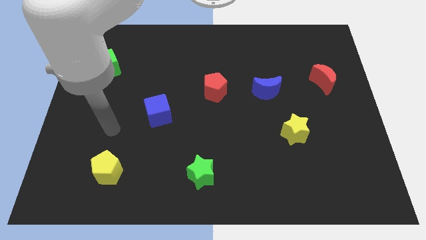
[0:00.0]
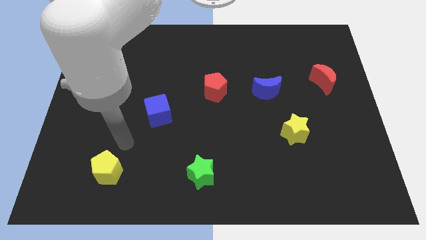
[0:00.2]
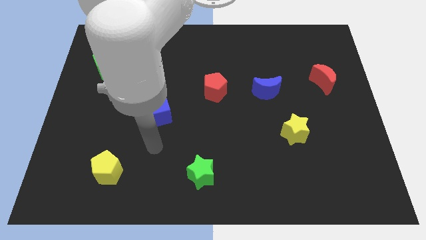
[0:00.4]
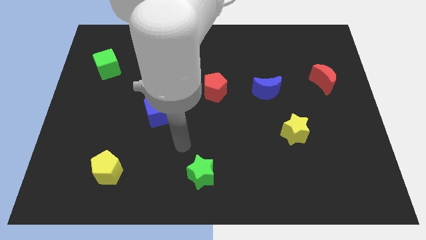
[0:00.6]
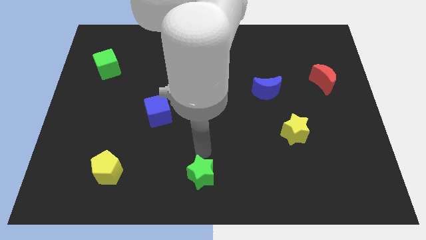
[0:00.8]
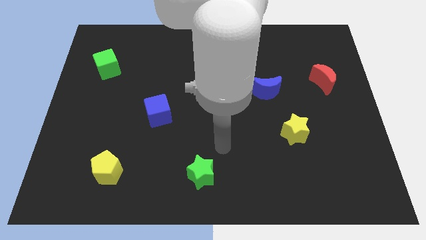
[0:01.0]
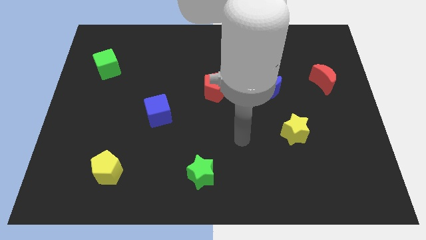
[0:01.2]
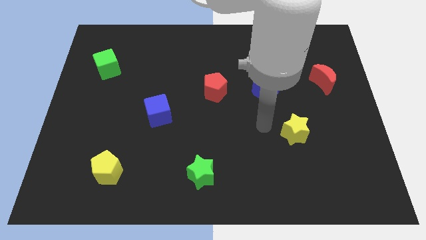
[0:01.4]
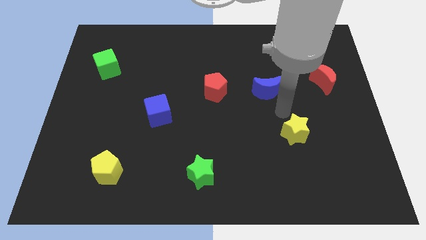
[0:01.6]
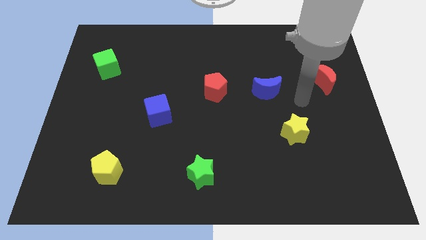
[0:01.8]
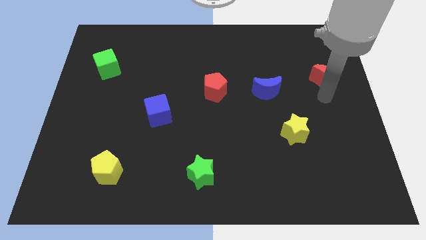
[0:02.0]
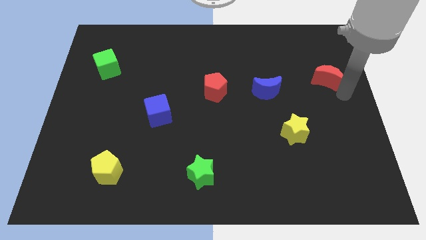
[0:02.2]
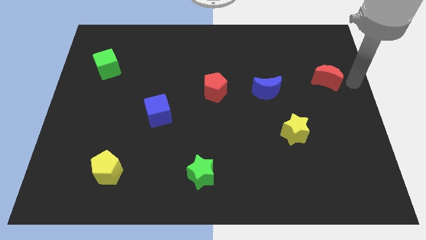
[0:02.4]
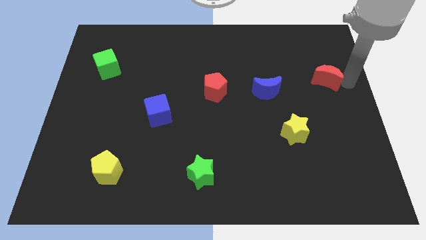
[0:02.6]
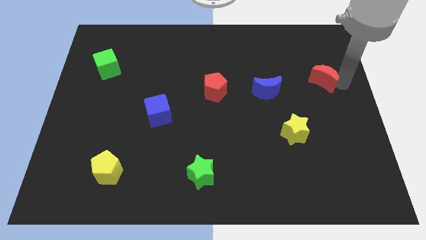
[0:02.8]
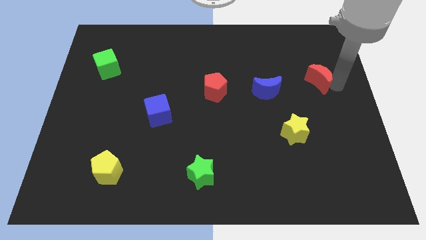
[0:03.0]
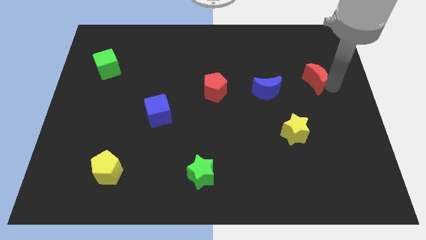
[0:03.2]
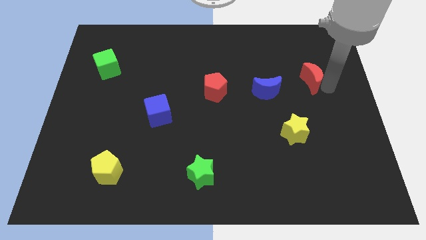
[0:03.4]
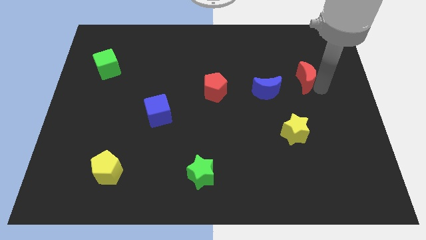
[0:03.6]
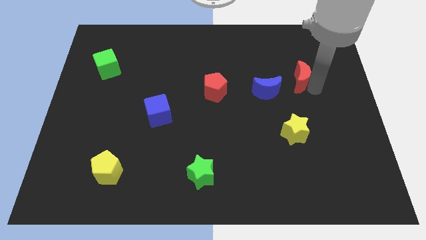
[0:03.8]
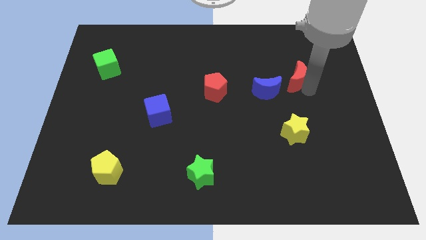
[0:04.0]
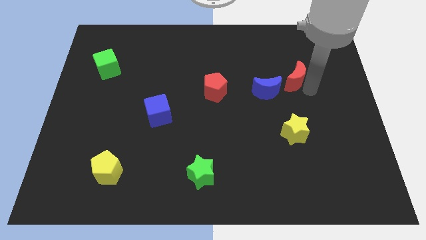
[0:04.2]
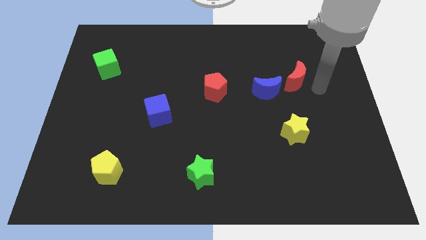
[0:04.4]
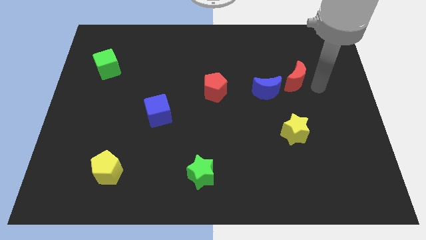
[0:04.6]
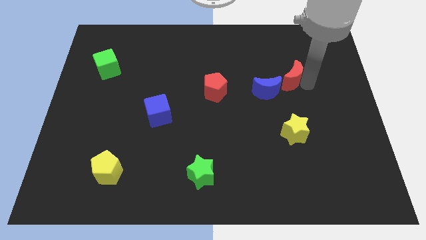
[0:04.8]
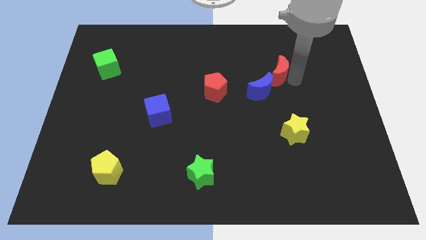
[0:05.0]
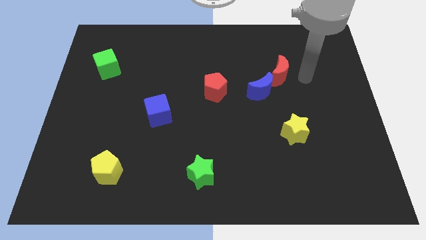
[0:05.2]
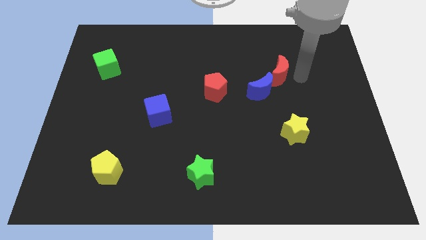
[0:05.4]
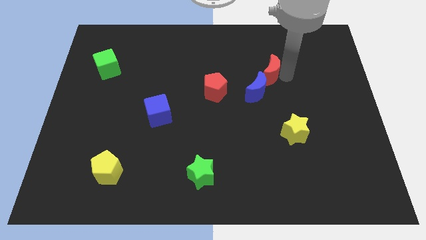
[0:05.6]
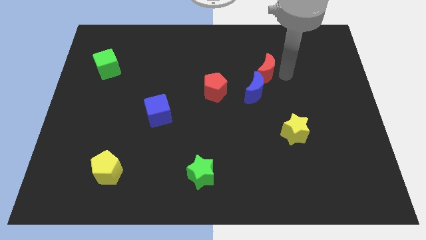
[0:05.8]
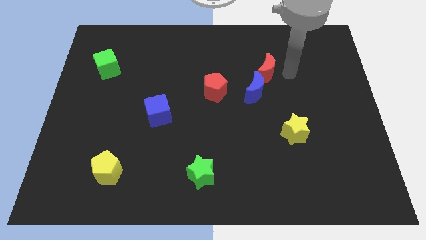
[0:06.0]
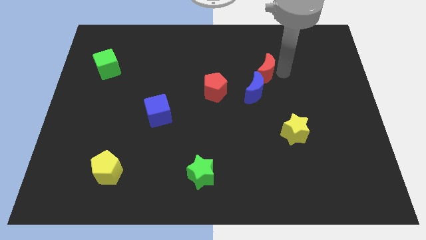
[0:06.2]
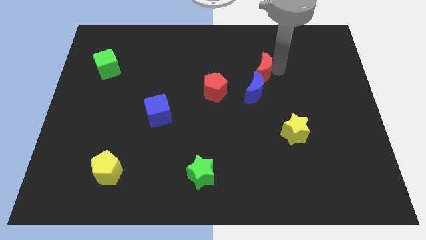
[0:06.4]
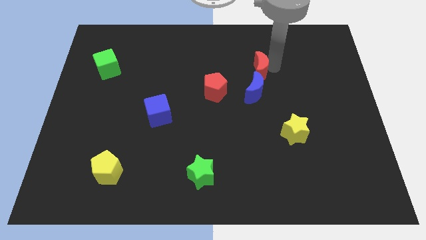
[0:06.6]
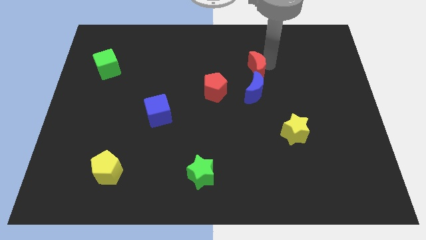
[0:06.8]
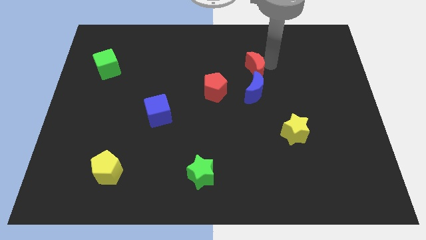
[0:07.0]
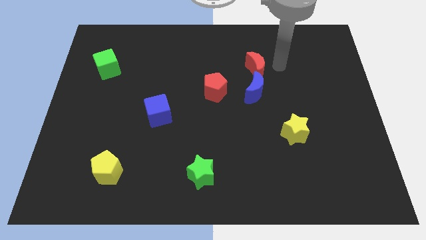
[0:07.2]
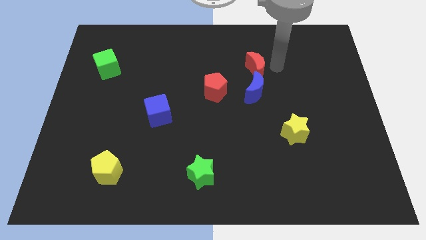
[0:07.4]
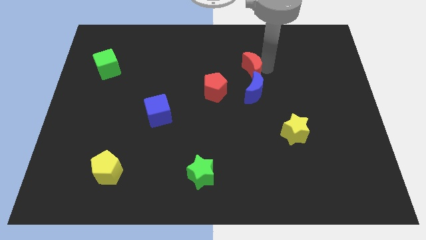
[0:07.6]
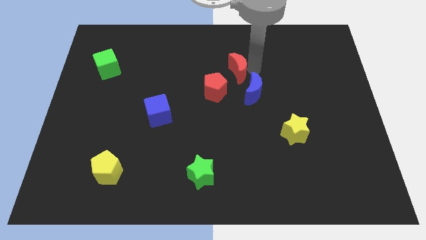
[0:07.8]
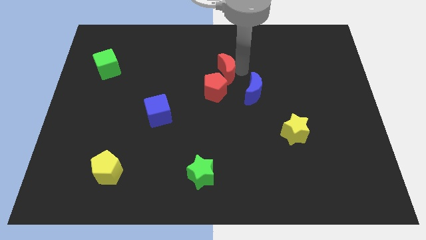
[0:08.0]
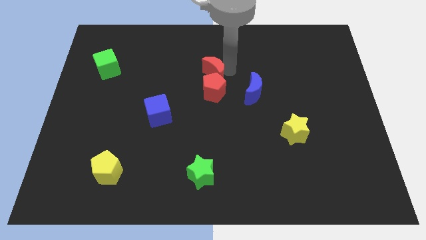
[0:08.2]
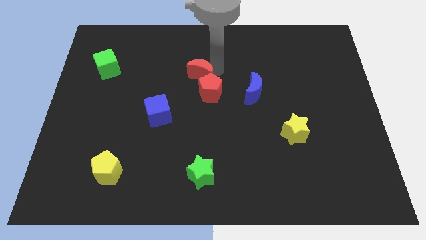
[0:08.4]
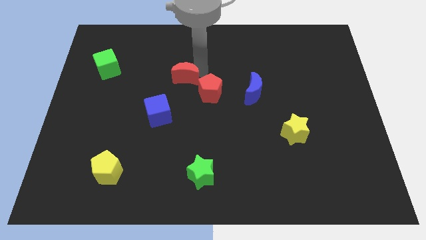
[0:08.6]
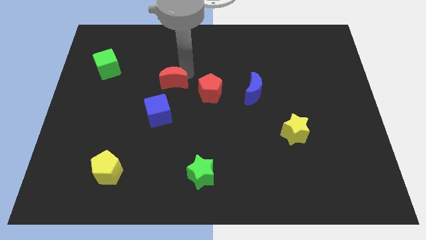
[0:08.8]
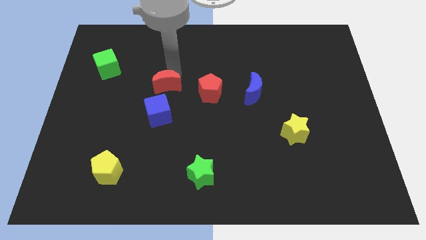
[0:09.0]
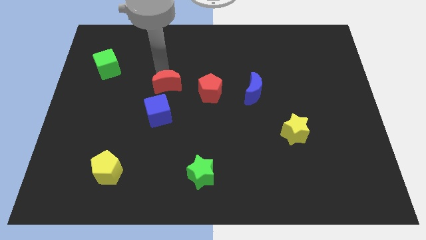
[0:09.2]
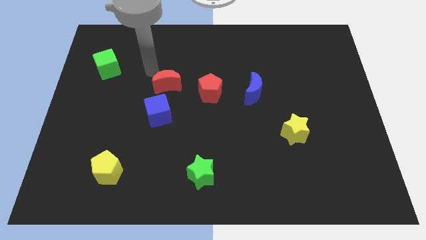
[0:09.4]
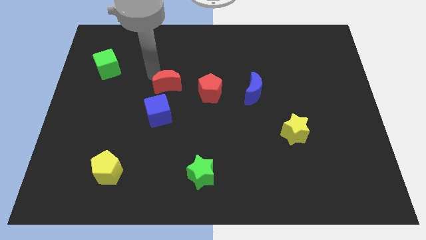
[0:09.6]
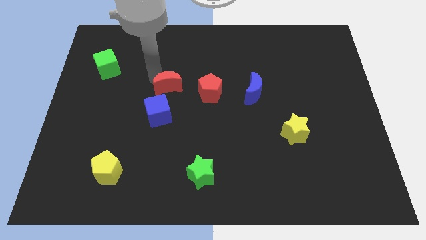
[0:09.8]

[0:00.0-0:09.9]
move the red moon to the top right of the blue cube

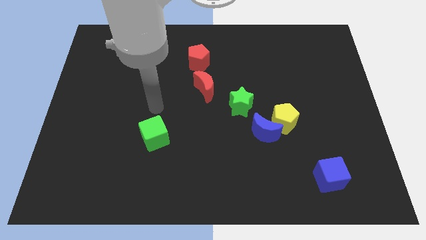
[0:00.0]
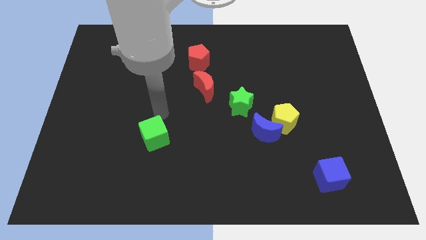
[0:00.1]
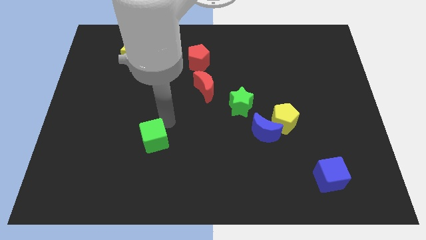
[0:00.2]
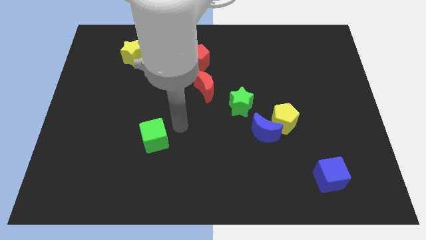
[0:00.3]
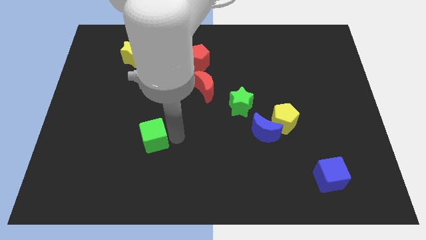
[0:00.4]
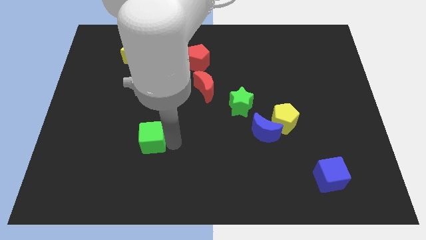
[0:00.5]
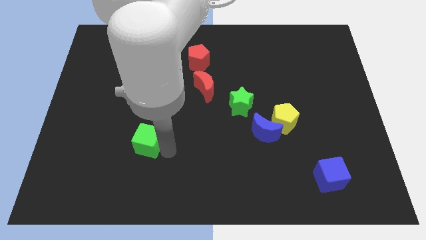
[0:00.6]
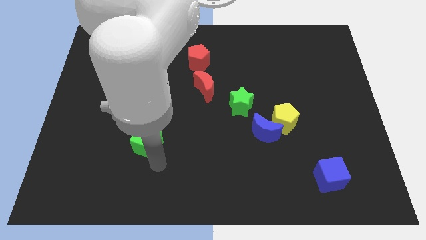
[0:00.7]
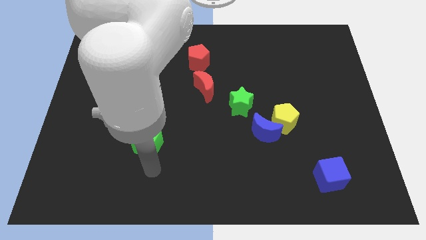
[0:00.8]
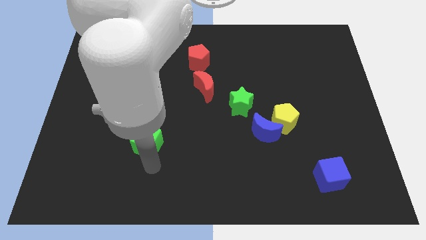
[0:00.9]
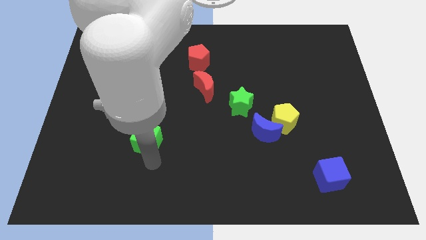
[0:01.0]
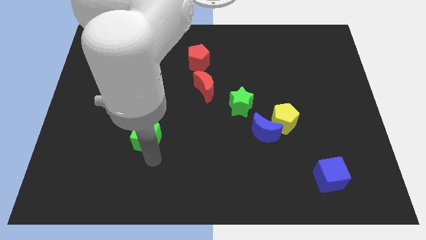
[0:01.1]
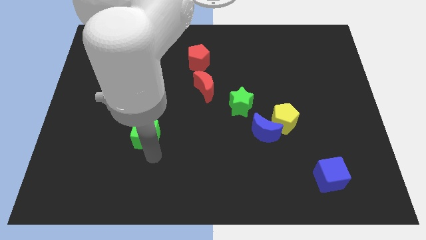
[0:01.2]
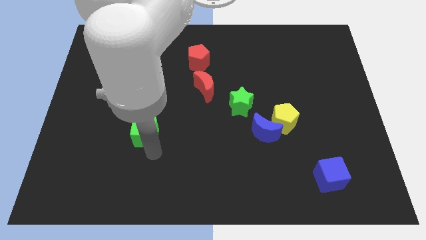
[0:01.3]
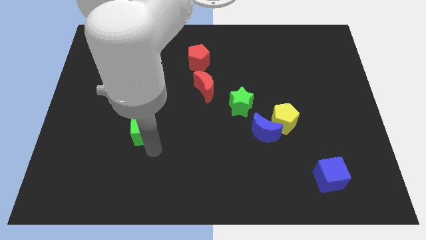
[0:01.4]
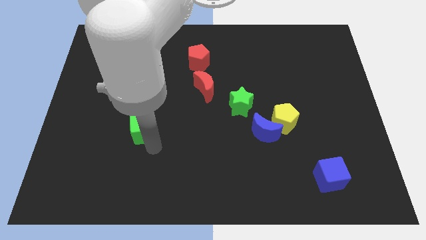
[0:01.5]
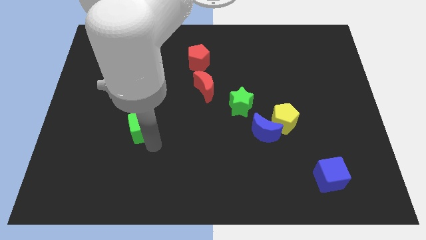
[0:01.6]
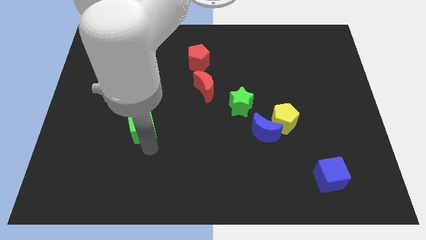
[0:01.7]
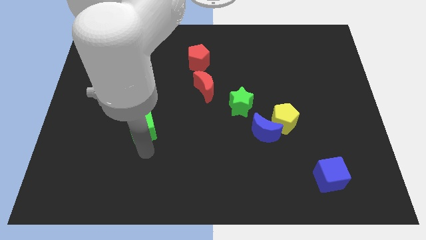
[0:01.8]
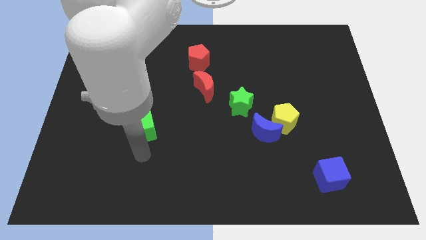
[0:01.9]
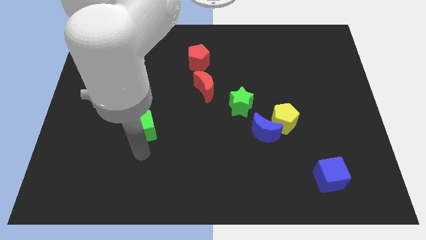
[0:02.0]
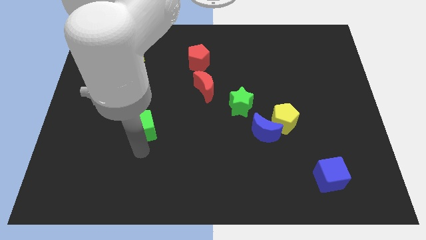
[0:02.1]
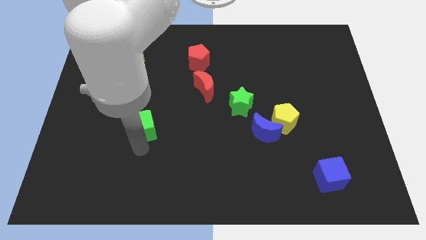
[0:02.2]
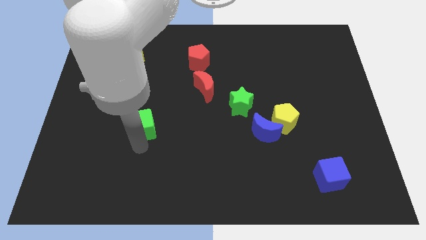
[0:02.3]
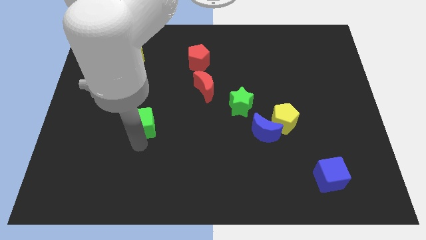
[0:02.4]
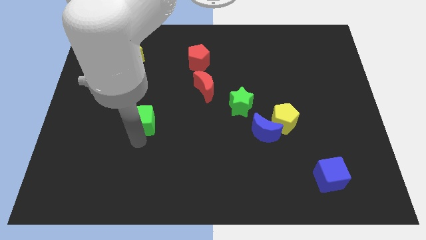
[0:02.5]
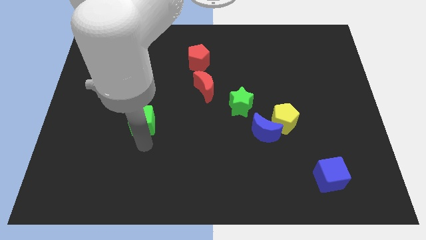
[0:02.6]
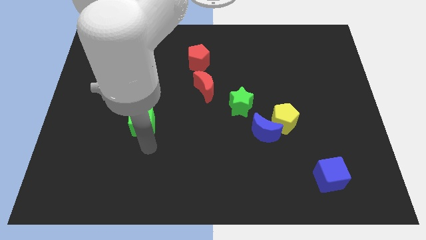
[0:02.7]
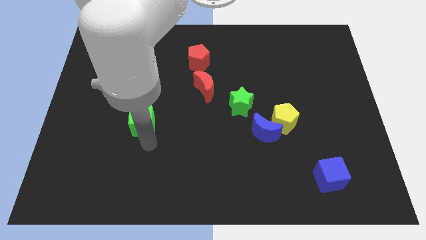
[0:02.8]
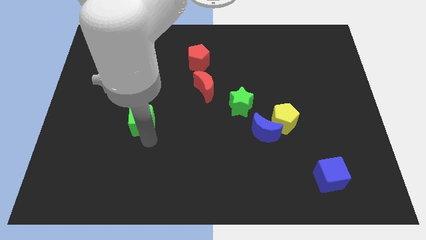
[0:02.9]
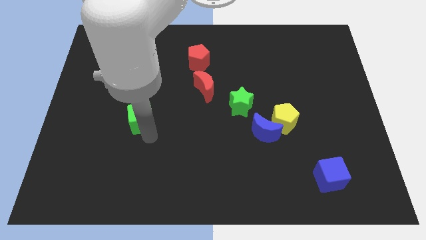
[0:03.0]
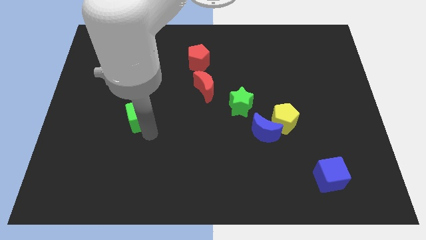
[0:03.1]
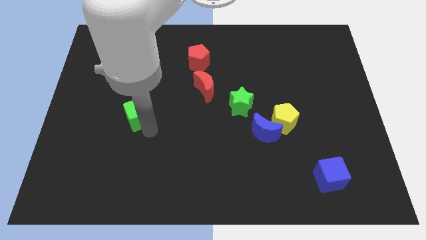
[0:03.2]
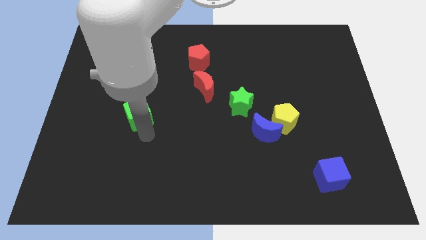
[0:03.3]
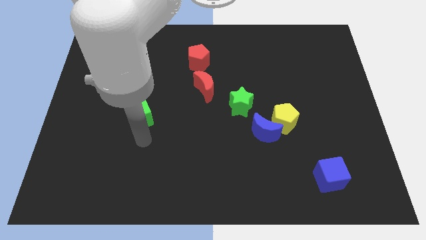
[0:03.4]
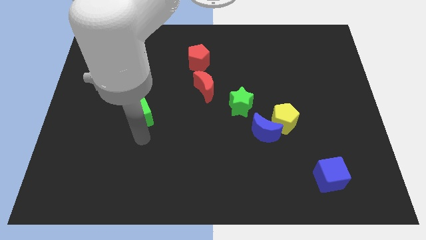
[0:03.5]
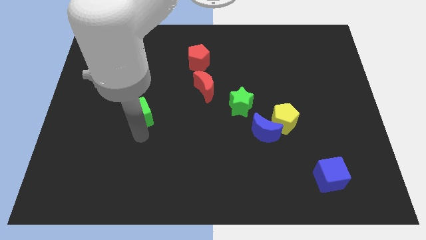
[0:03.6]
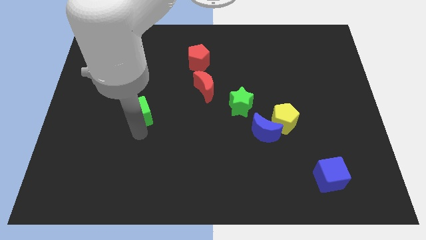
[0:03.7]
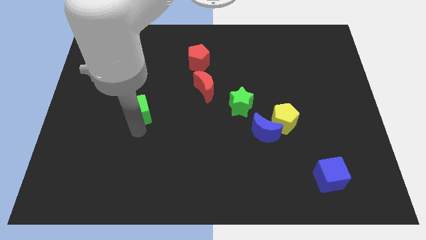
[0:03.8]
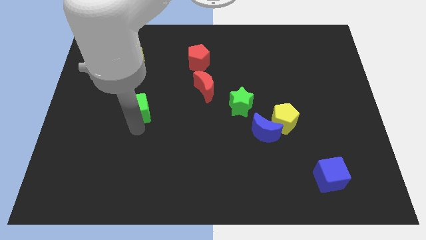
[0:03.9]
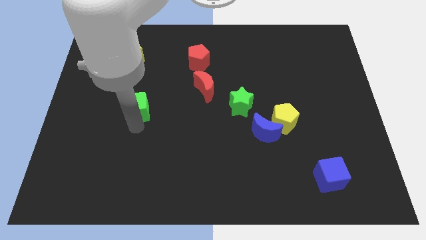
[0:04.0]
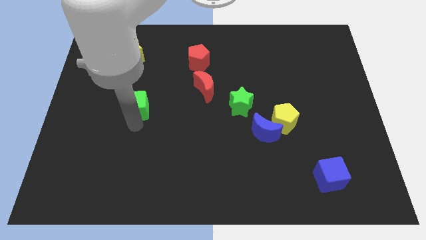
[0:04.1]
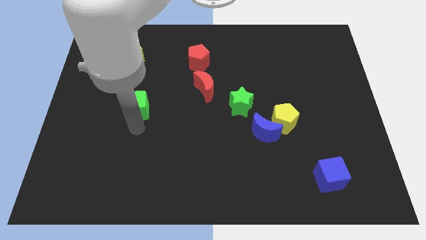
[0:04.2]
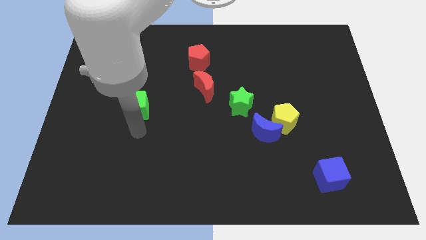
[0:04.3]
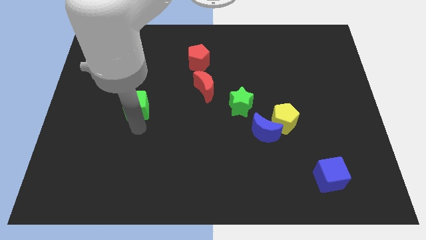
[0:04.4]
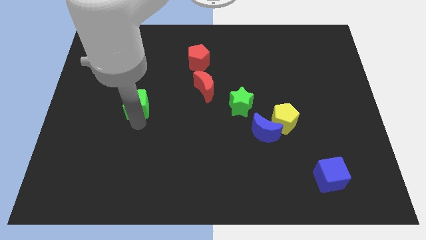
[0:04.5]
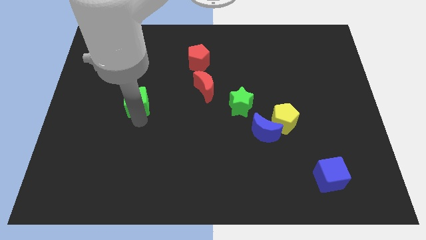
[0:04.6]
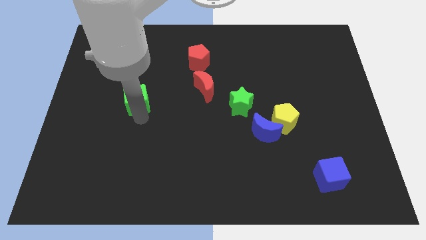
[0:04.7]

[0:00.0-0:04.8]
push the green cube to the bottom of the yellow star
